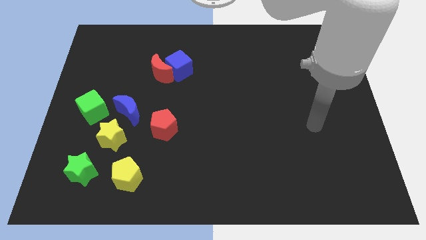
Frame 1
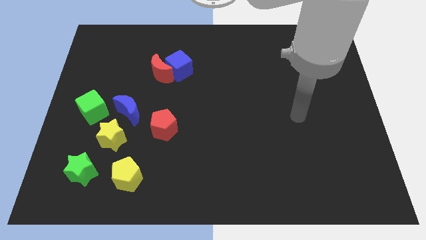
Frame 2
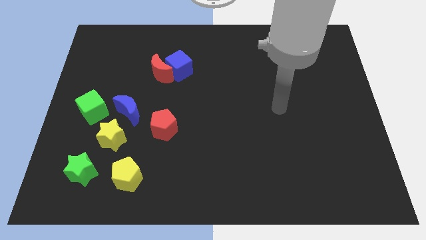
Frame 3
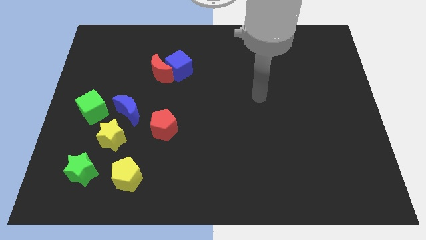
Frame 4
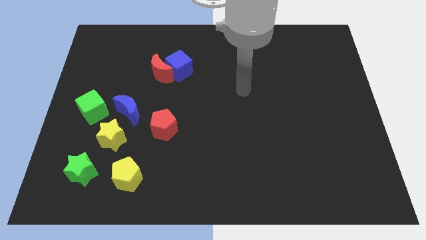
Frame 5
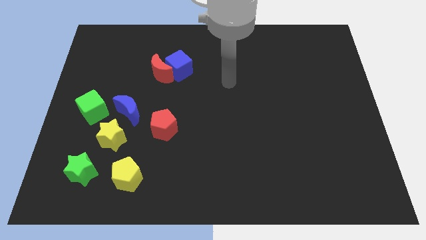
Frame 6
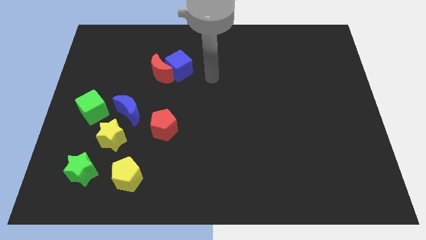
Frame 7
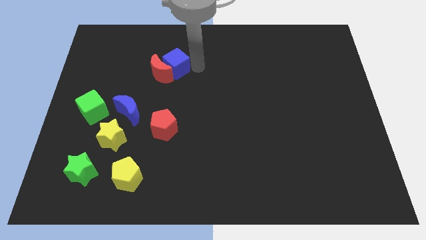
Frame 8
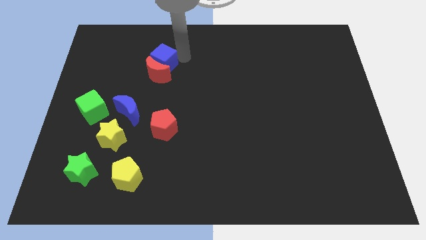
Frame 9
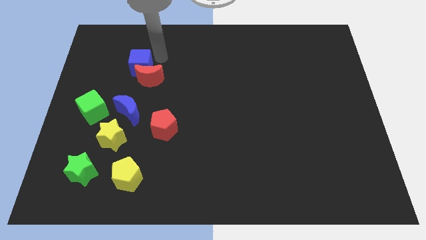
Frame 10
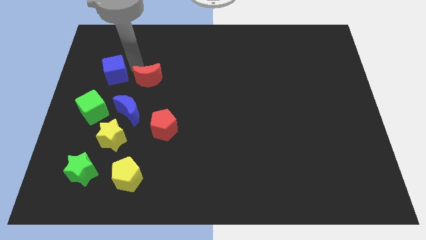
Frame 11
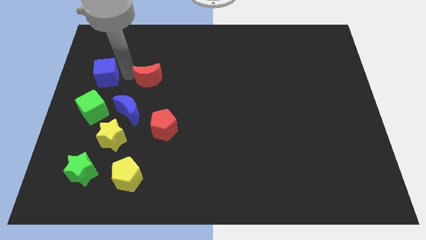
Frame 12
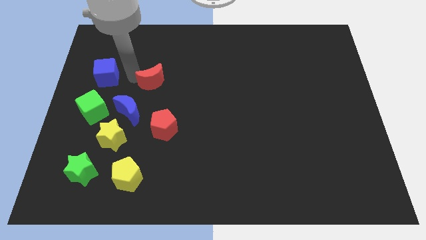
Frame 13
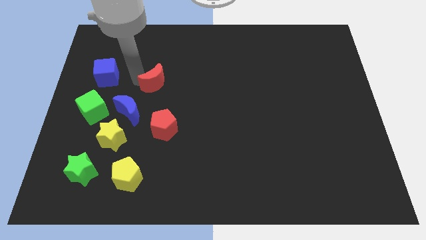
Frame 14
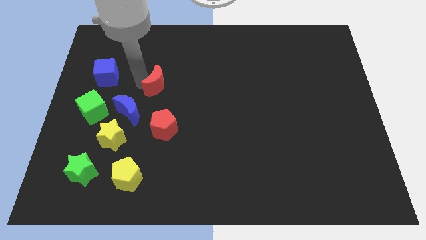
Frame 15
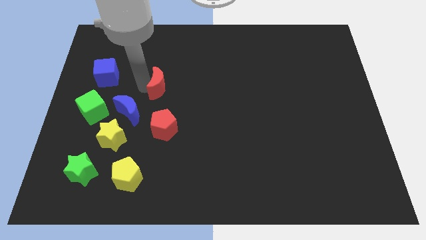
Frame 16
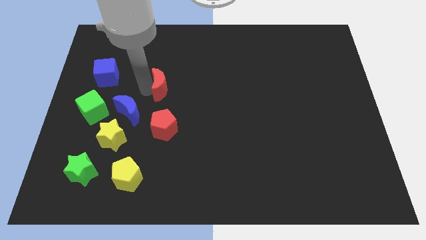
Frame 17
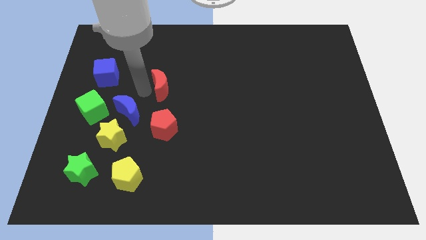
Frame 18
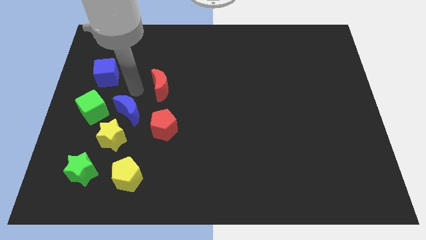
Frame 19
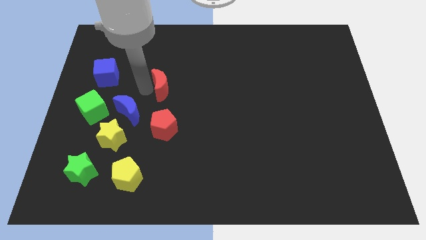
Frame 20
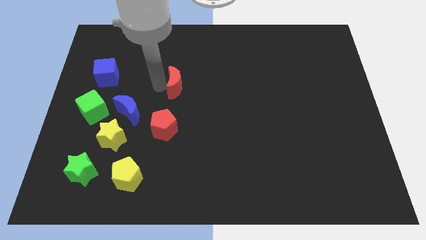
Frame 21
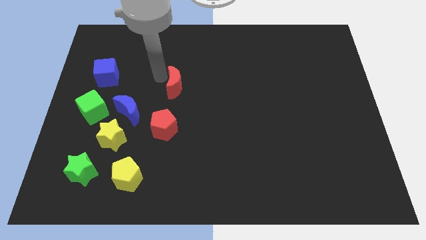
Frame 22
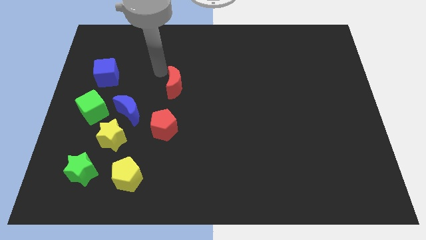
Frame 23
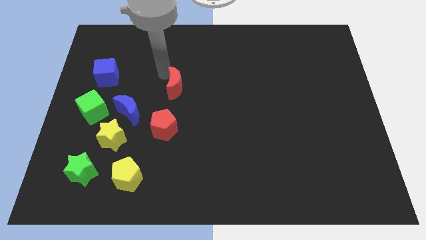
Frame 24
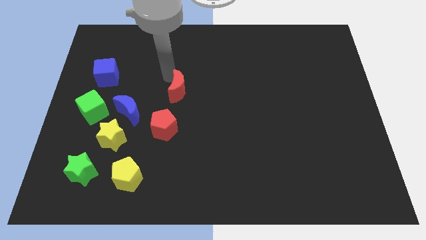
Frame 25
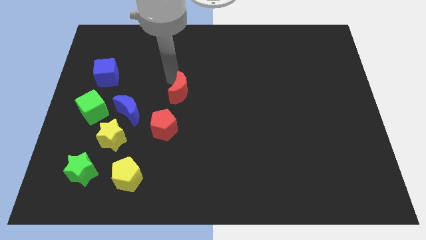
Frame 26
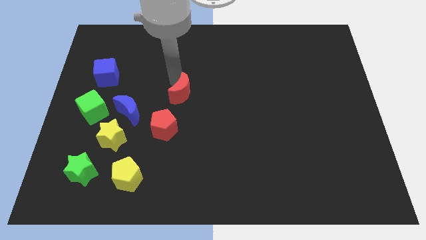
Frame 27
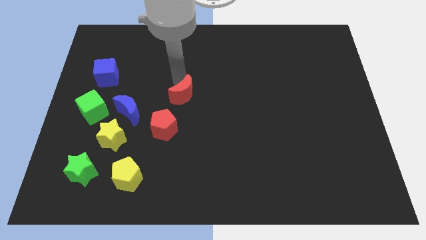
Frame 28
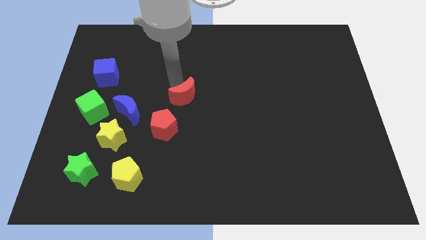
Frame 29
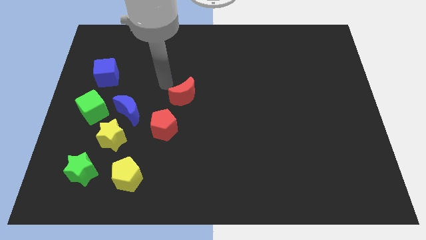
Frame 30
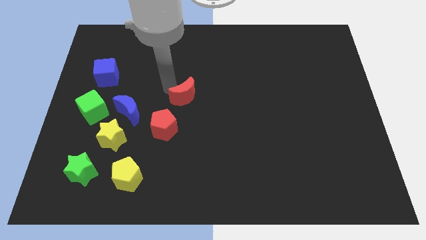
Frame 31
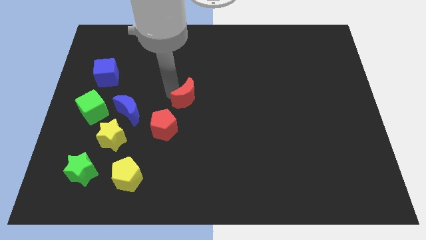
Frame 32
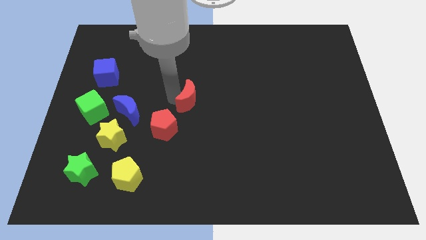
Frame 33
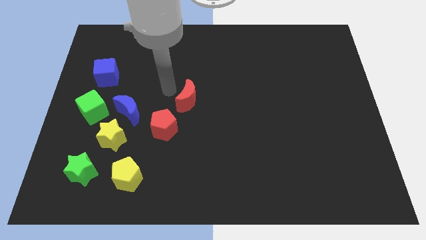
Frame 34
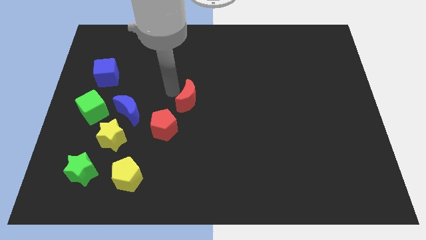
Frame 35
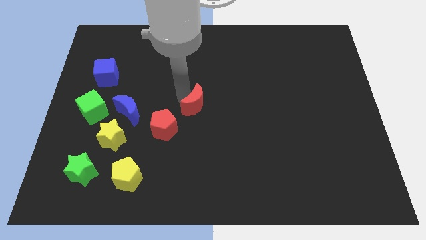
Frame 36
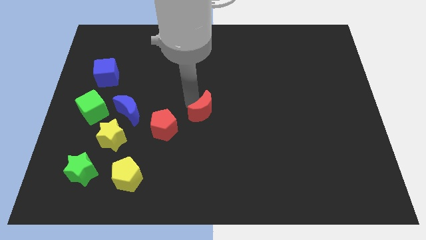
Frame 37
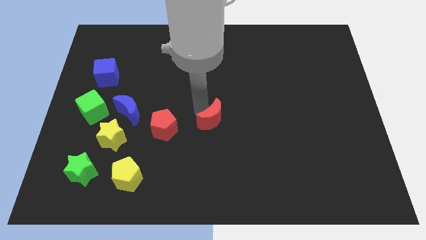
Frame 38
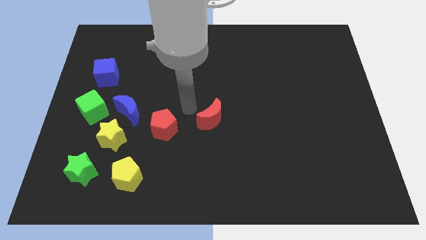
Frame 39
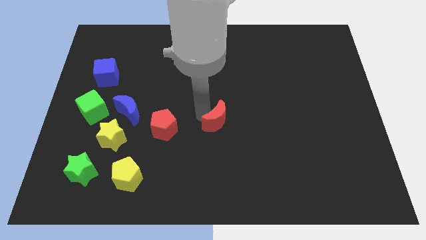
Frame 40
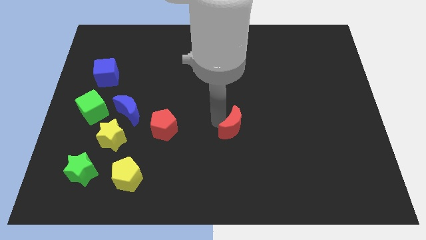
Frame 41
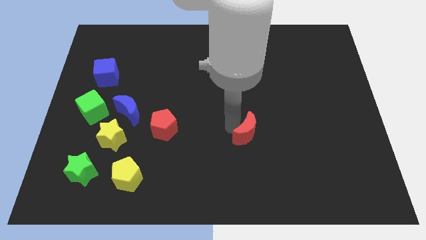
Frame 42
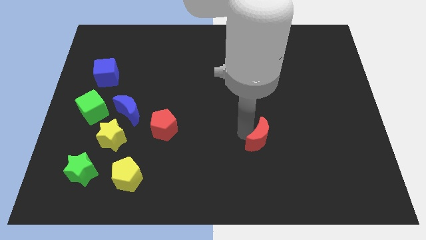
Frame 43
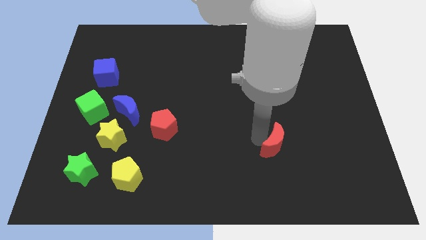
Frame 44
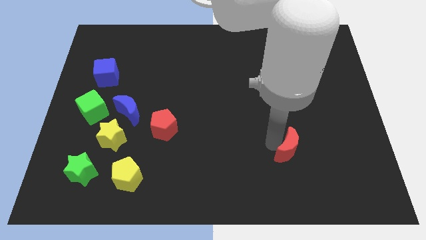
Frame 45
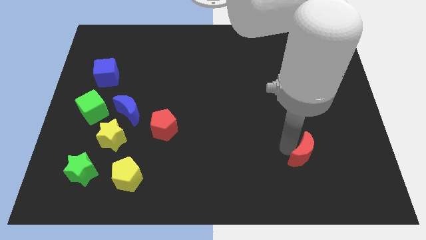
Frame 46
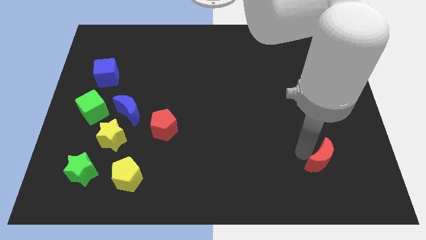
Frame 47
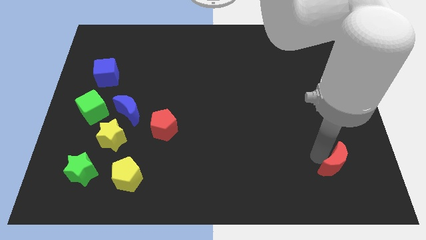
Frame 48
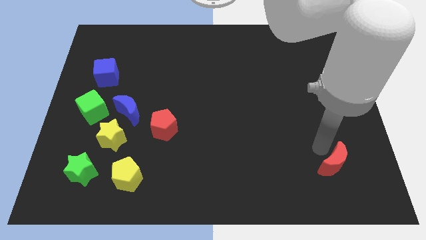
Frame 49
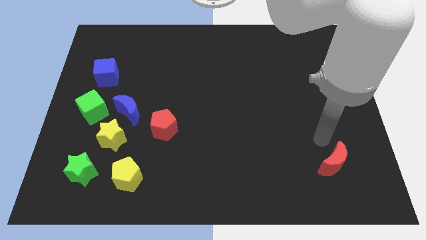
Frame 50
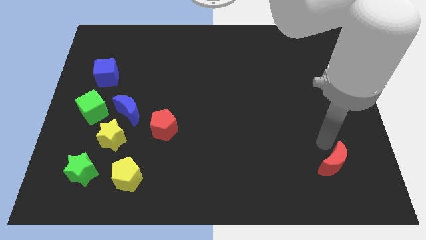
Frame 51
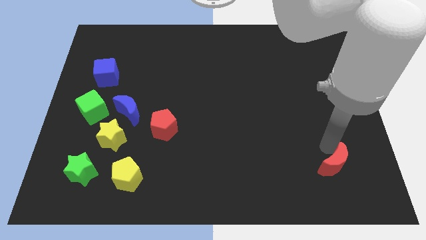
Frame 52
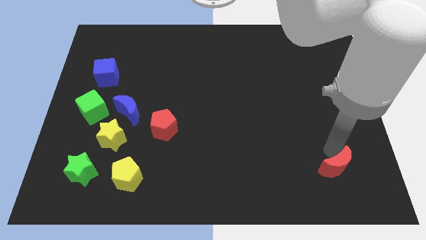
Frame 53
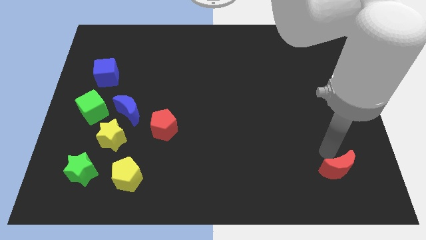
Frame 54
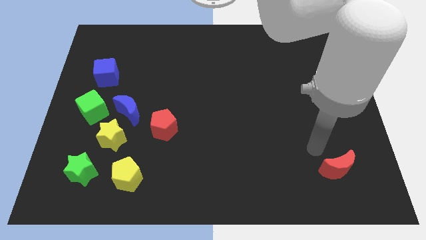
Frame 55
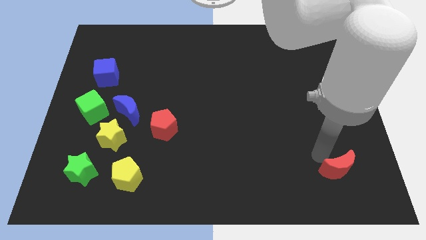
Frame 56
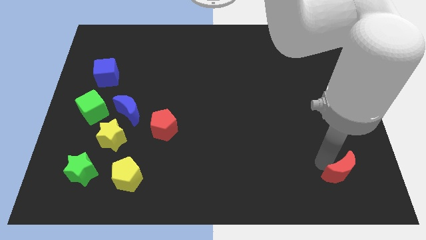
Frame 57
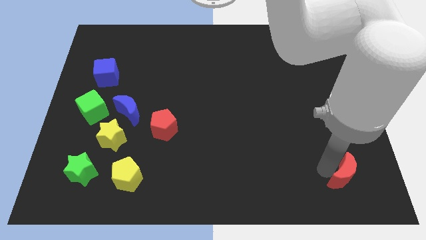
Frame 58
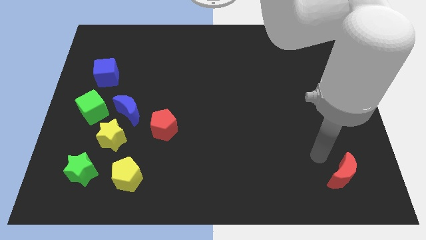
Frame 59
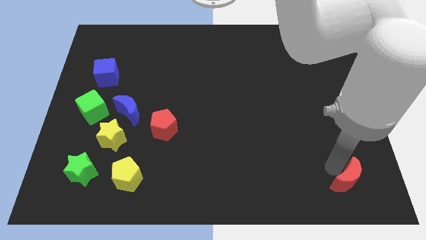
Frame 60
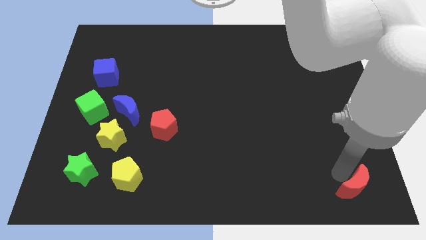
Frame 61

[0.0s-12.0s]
put the red moon to the bottom right of the board

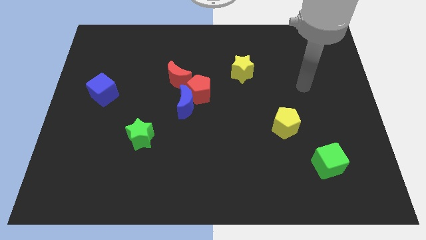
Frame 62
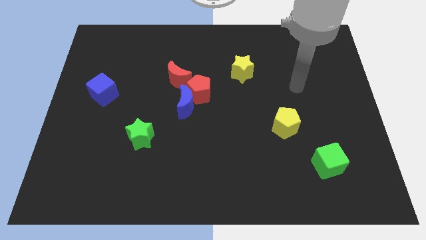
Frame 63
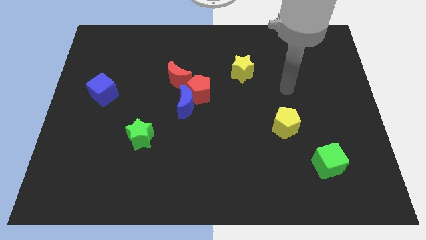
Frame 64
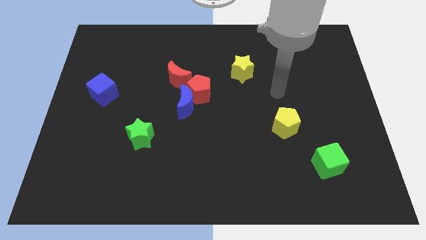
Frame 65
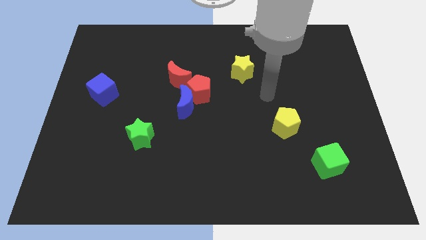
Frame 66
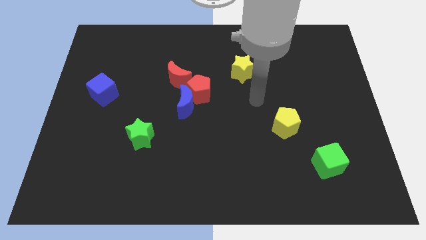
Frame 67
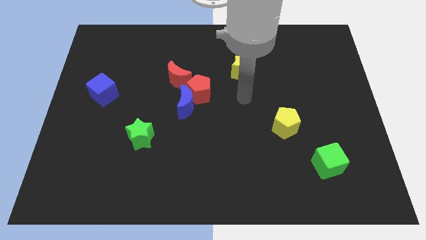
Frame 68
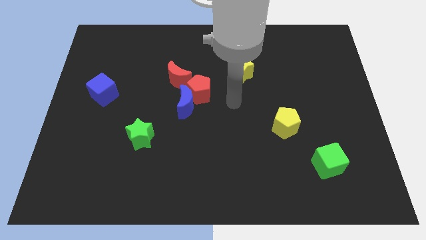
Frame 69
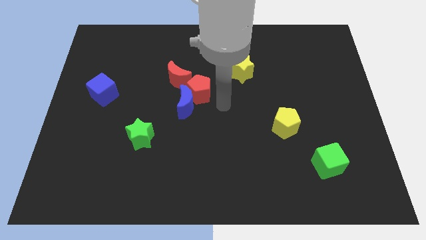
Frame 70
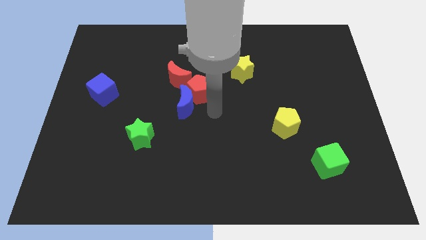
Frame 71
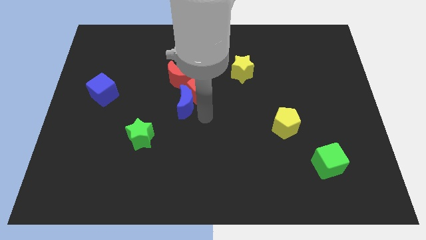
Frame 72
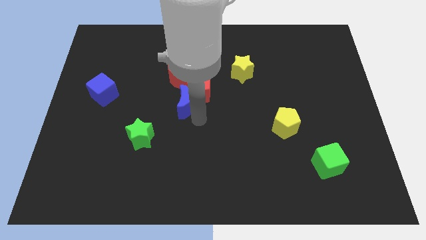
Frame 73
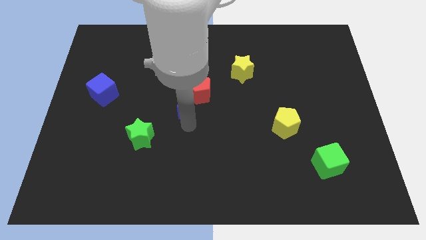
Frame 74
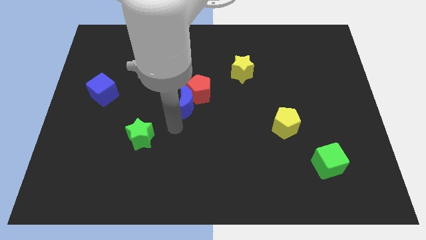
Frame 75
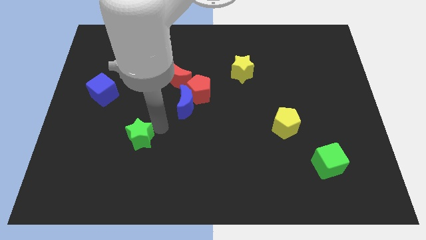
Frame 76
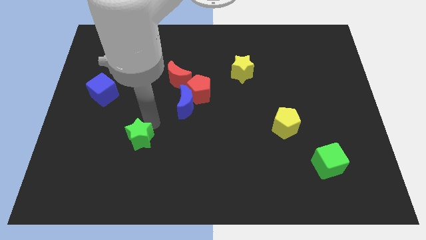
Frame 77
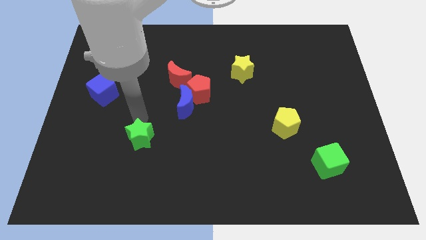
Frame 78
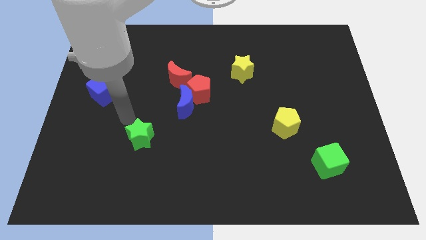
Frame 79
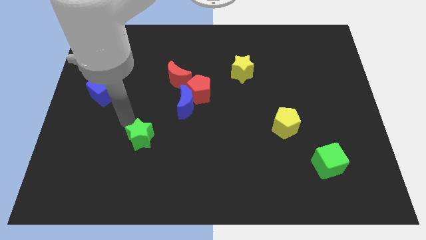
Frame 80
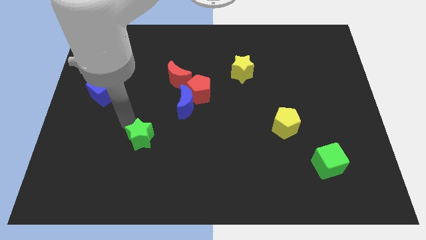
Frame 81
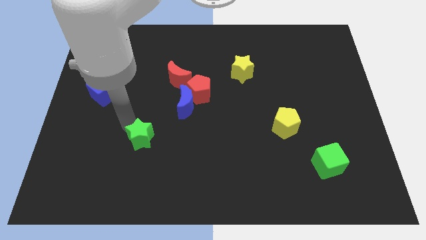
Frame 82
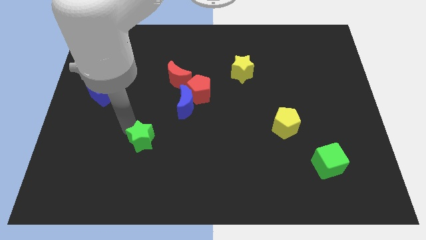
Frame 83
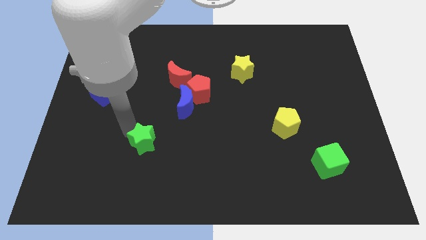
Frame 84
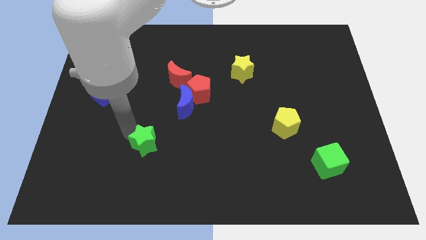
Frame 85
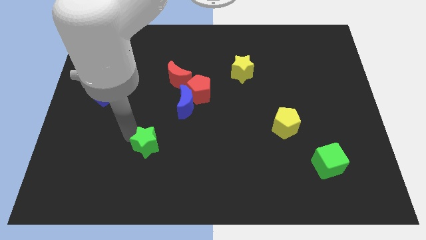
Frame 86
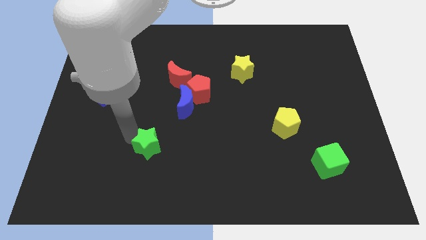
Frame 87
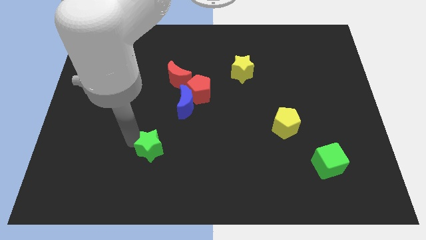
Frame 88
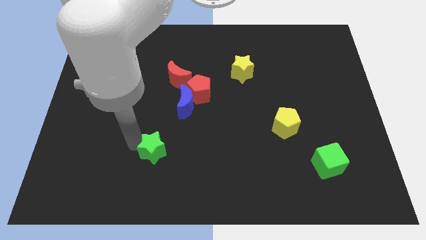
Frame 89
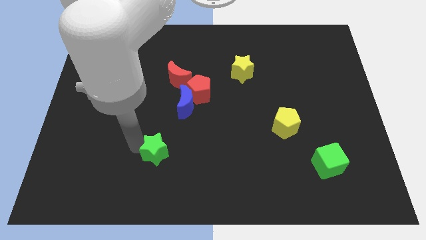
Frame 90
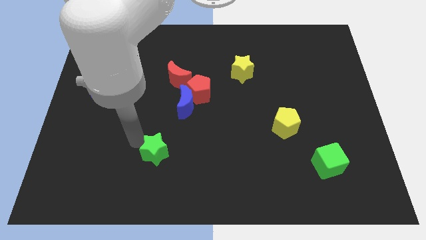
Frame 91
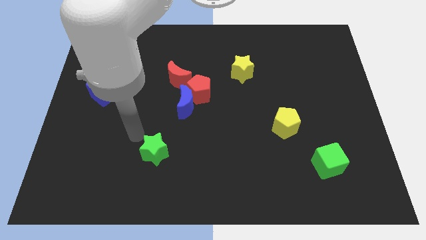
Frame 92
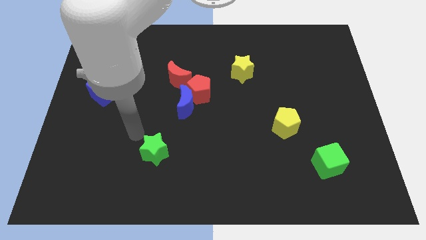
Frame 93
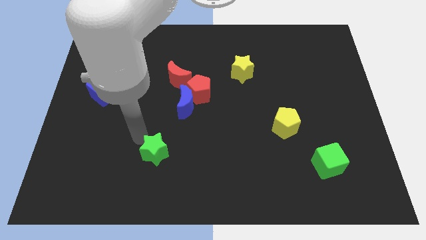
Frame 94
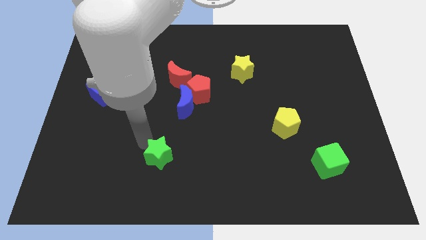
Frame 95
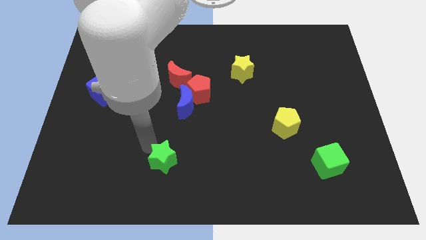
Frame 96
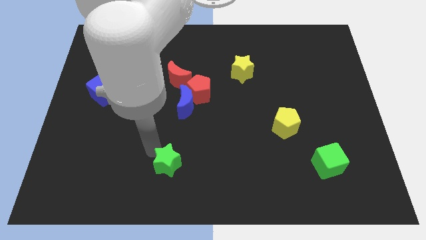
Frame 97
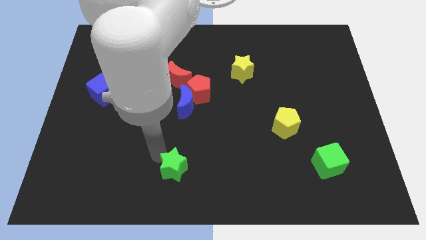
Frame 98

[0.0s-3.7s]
put the green star to the bottom side
